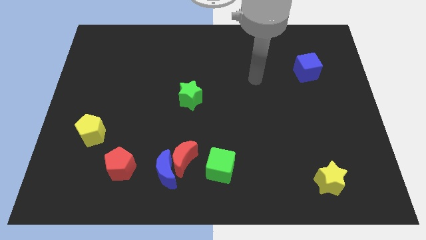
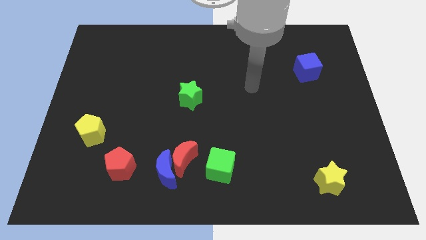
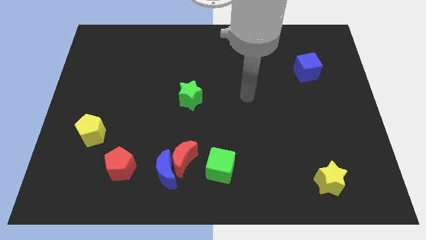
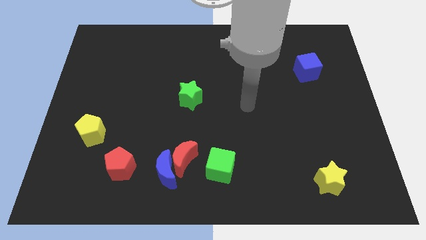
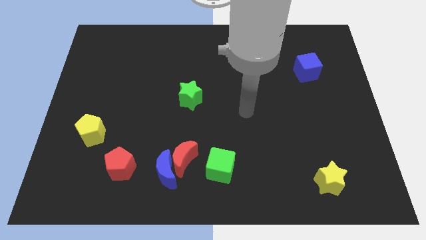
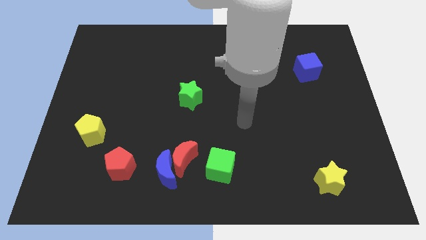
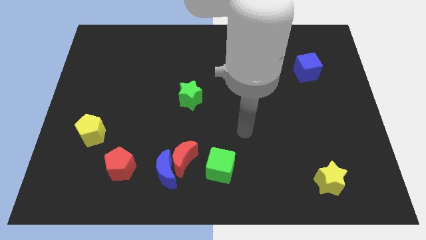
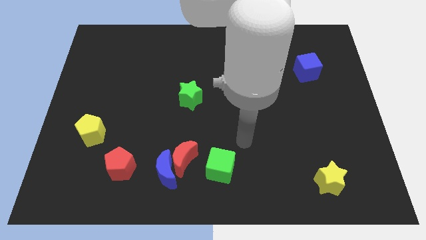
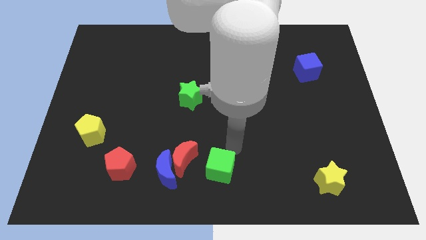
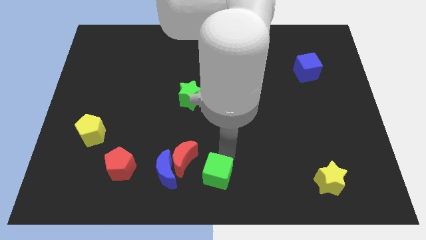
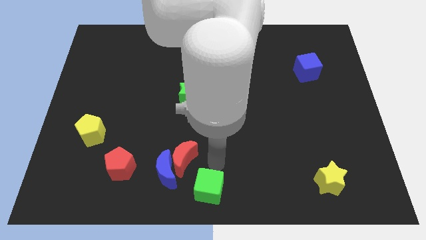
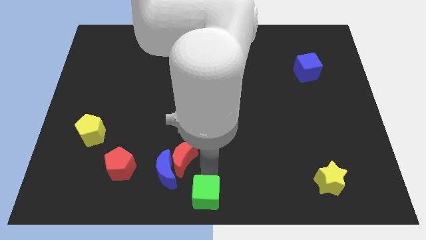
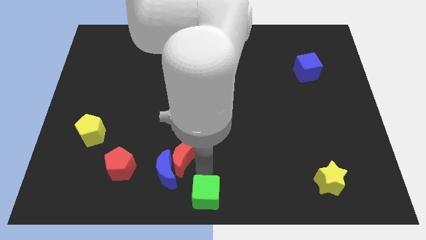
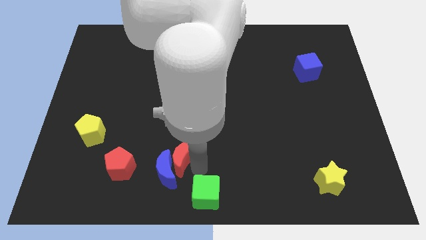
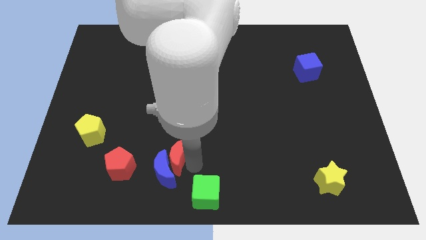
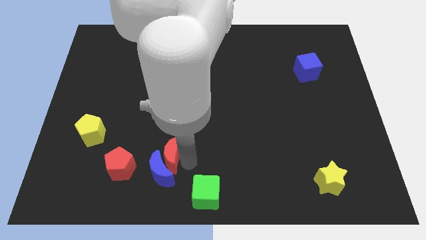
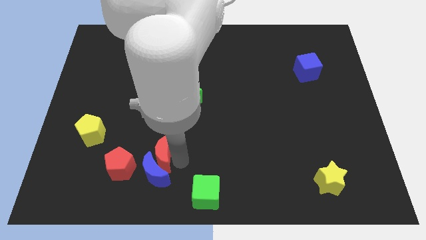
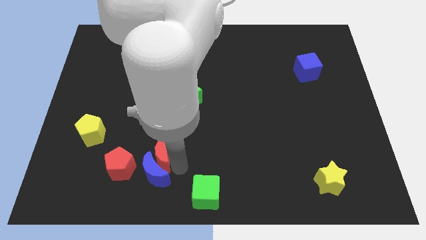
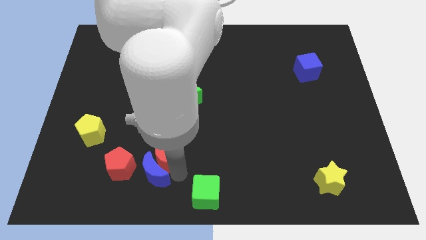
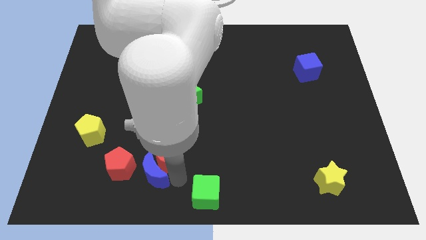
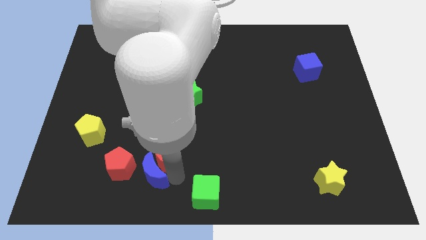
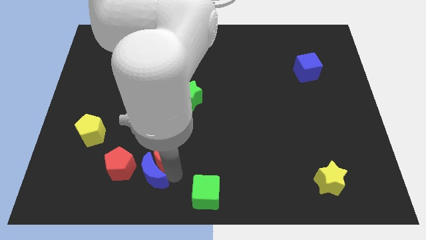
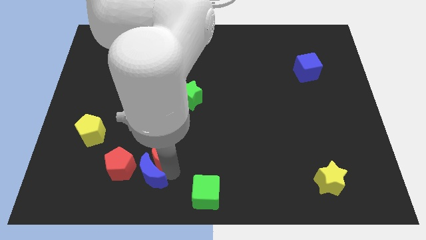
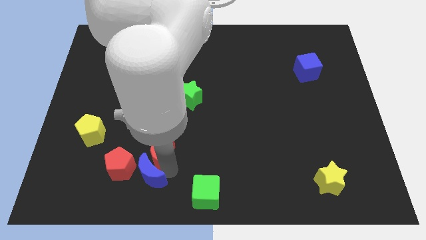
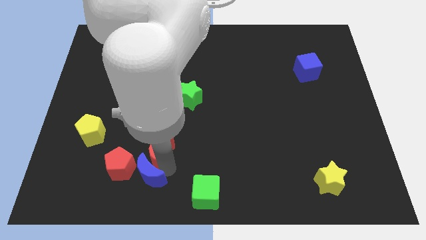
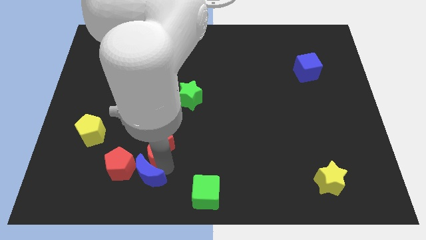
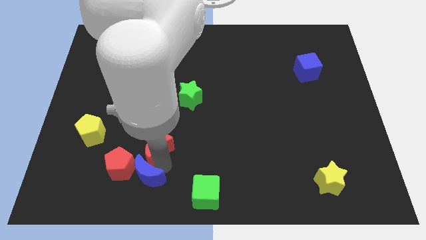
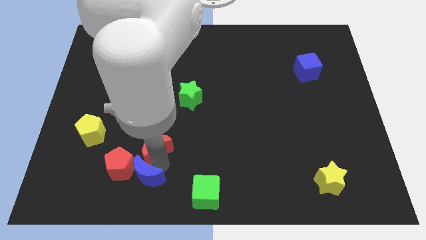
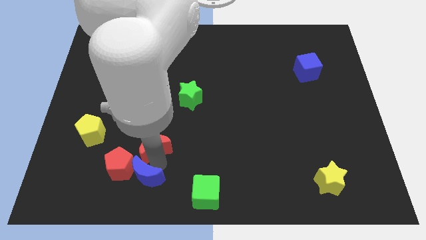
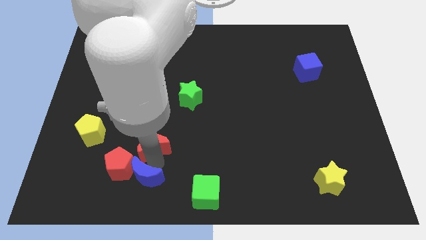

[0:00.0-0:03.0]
move the red moon away from the blue moon and green cube

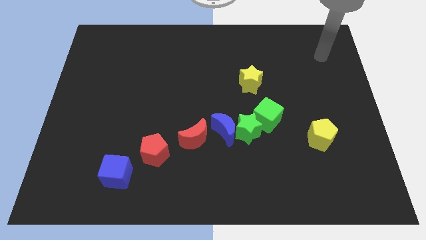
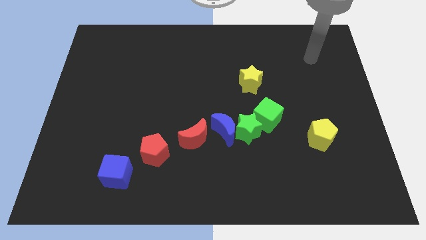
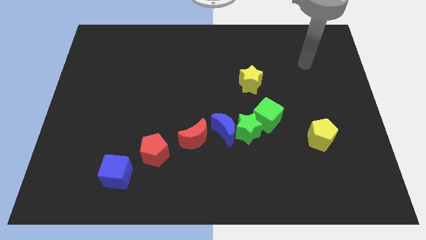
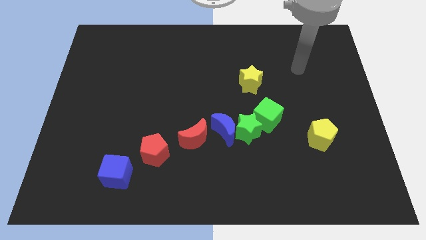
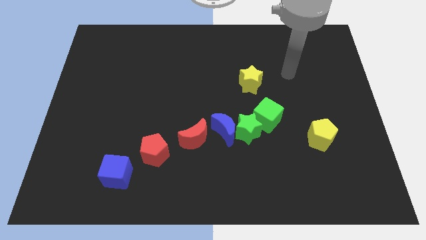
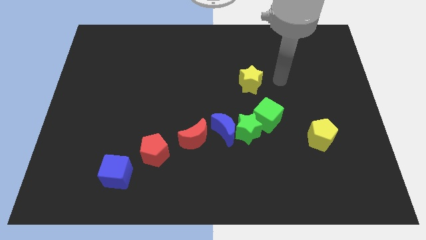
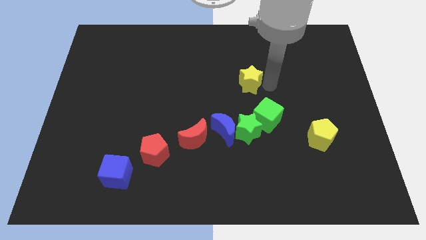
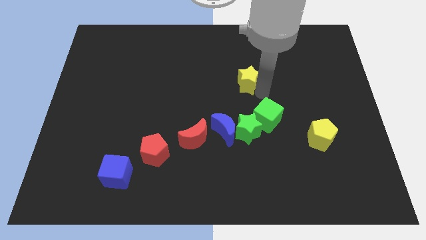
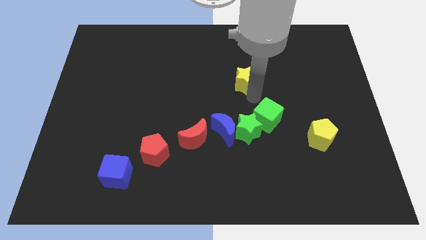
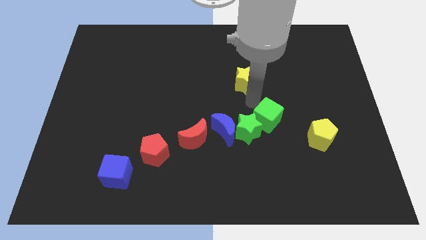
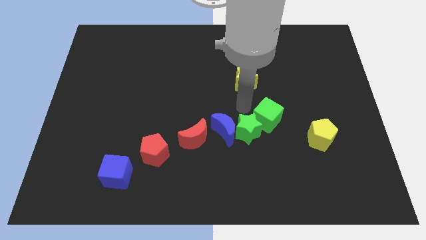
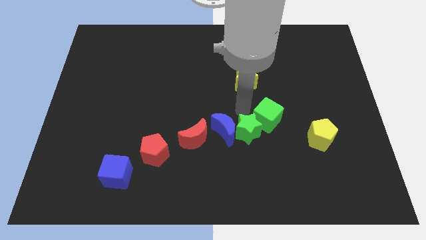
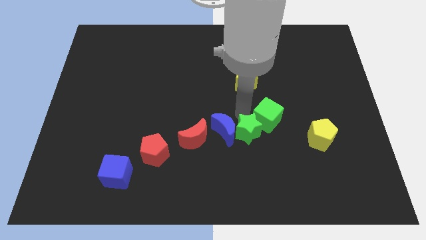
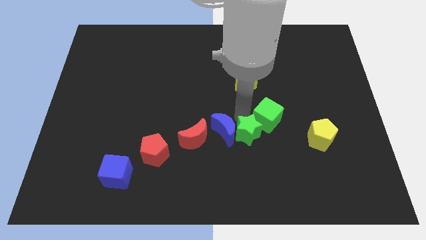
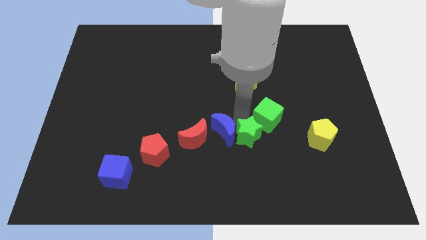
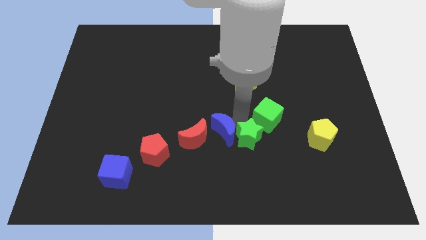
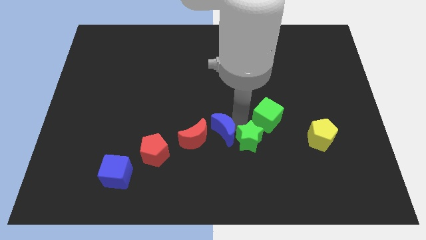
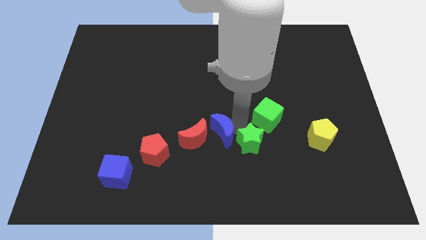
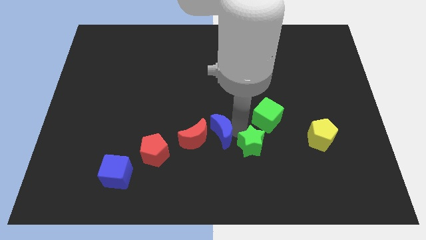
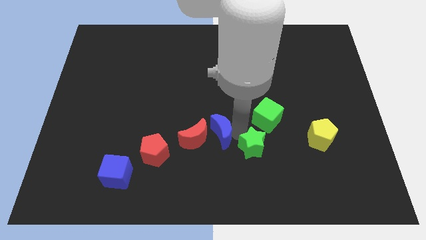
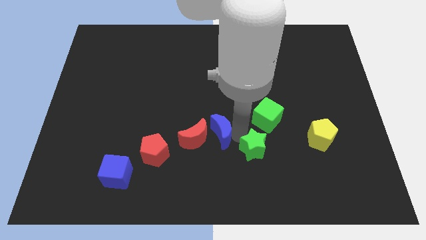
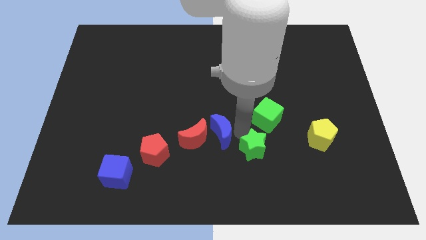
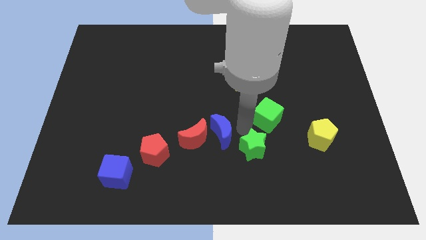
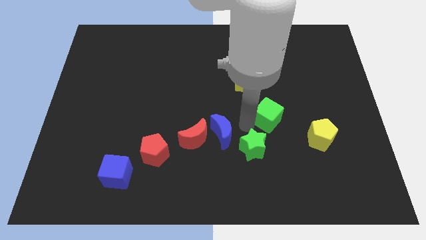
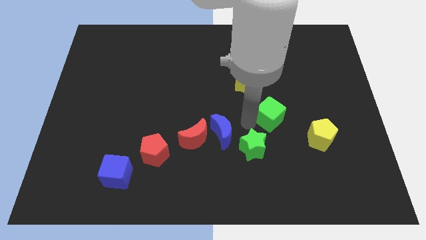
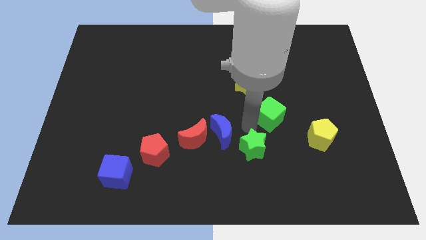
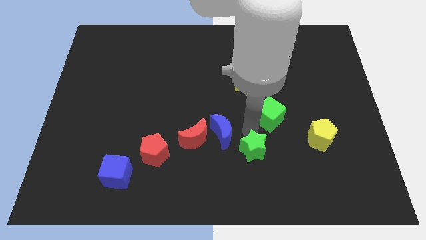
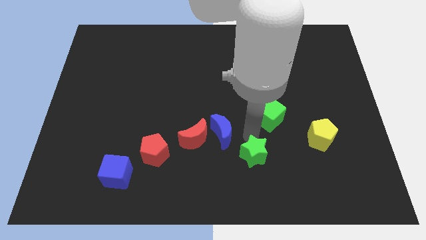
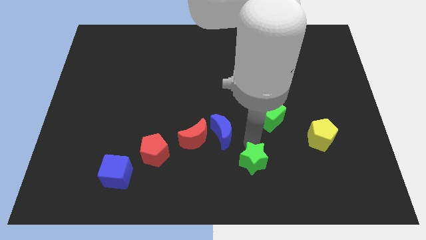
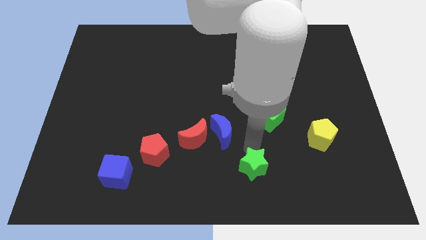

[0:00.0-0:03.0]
separate the green star from the blue moon and green cube

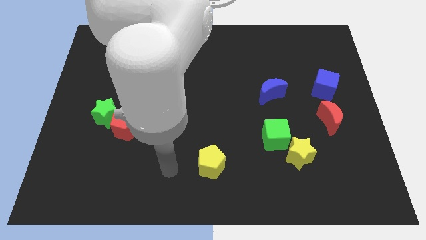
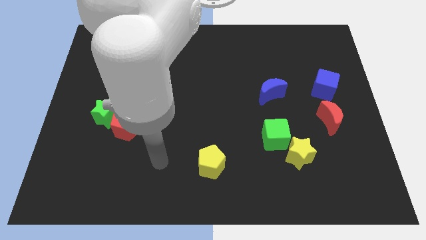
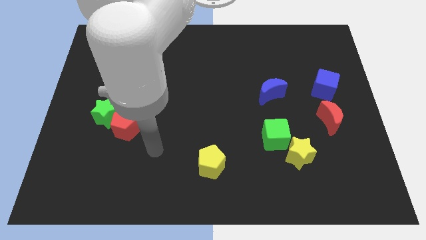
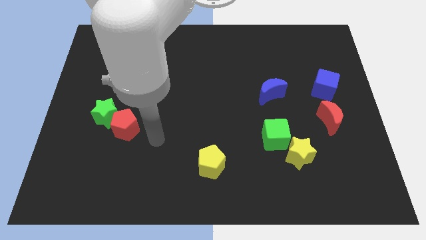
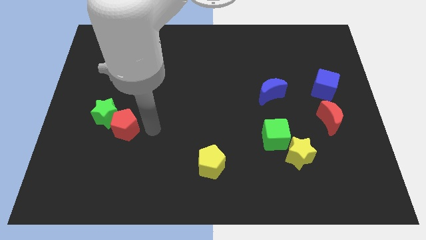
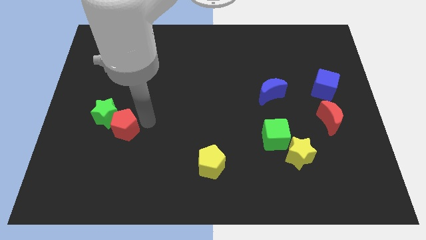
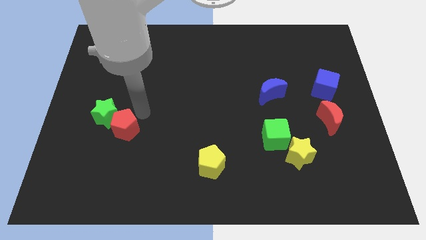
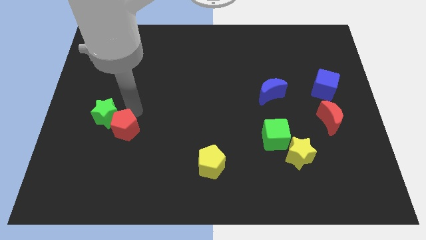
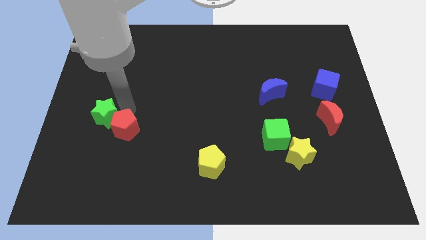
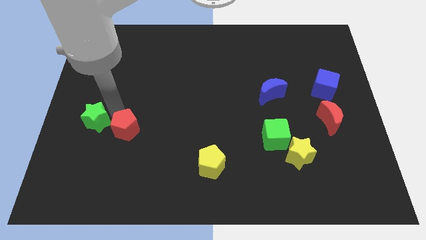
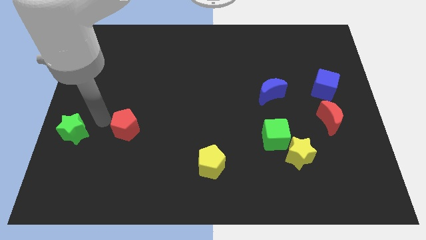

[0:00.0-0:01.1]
separate the red pentagon from the green star

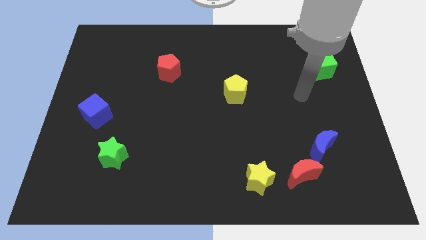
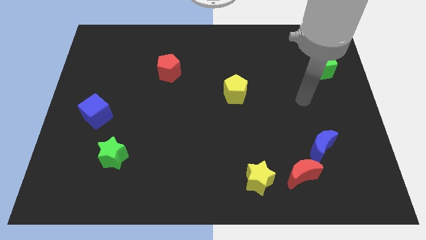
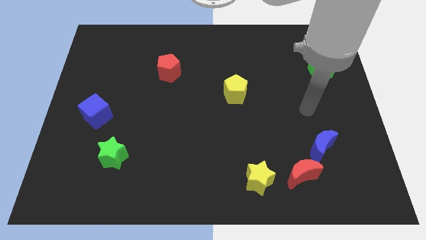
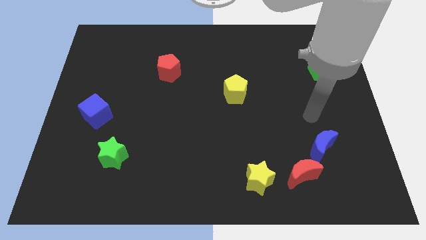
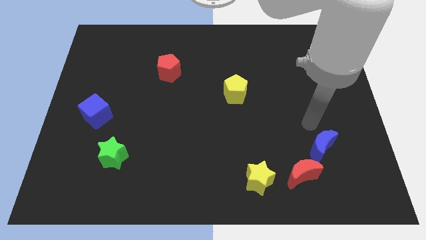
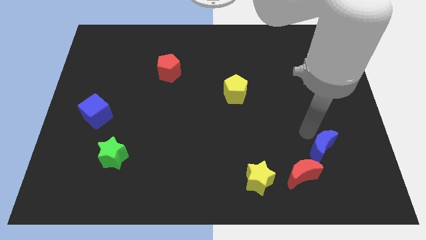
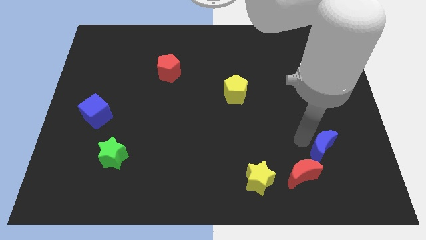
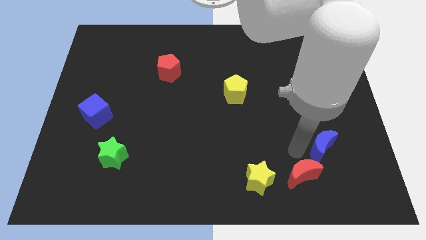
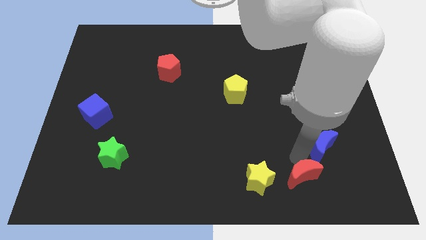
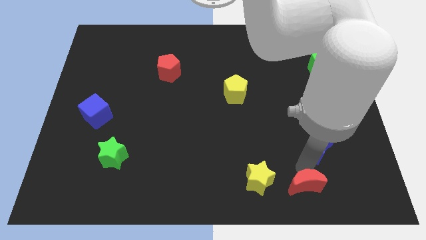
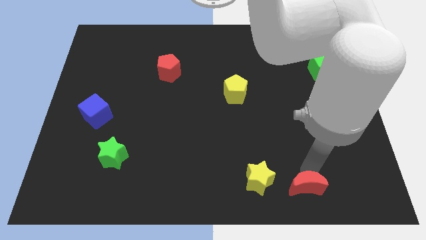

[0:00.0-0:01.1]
move the blue moon away from the red moon

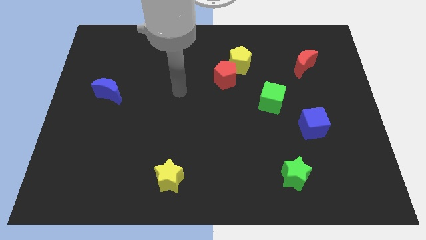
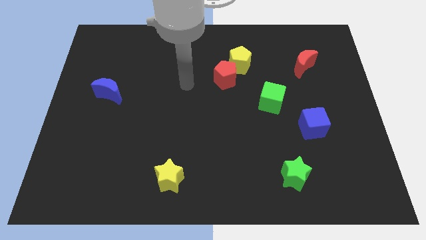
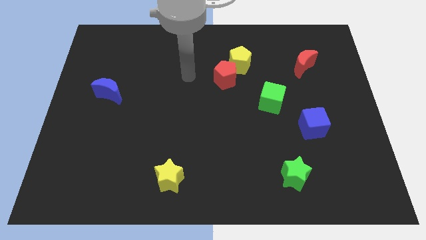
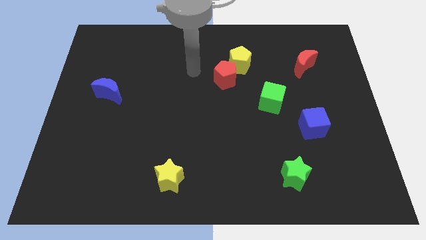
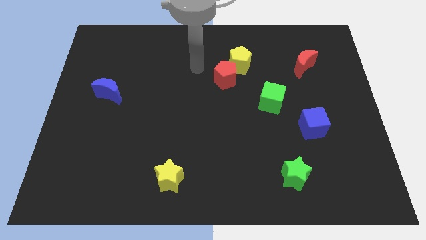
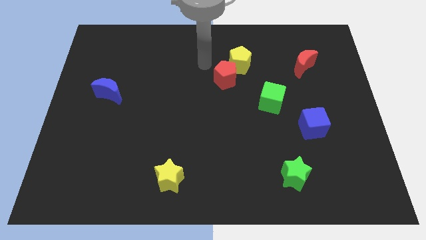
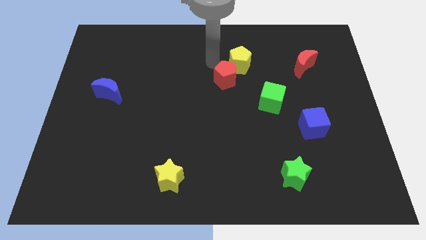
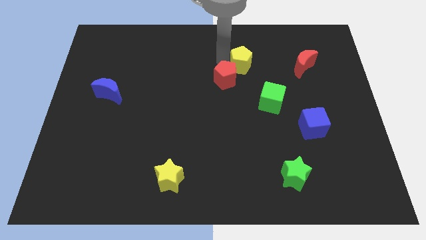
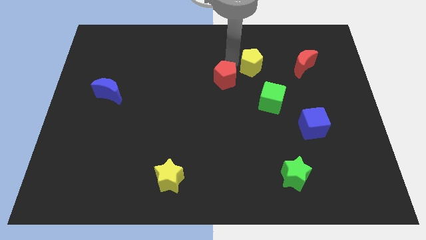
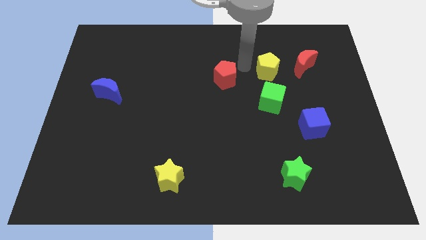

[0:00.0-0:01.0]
move the red pentagon away from the yellow pentagon
